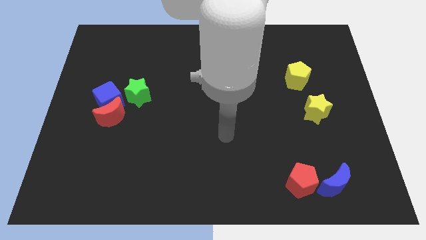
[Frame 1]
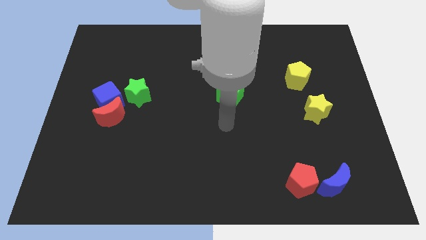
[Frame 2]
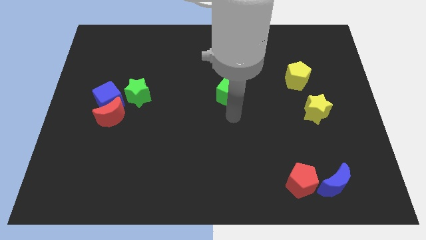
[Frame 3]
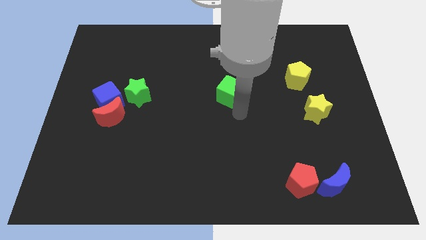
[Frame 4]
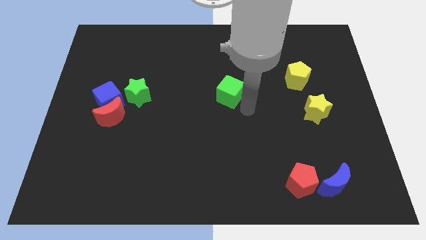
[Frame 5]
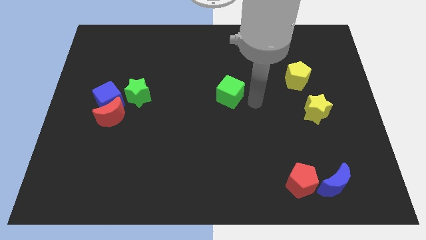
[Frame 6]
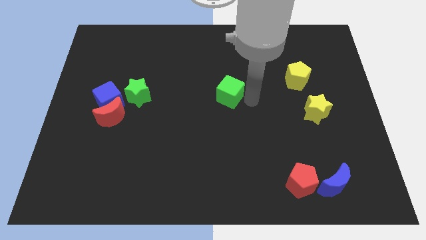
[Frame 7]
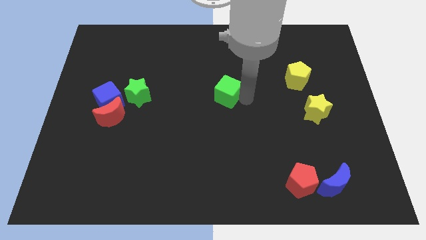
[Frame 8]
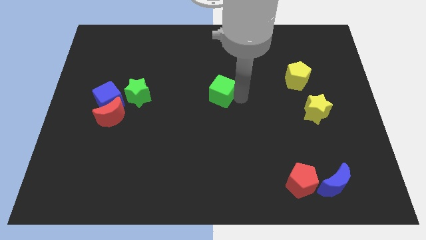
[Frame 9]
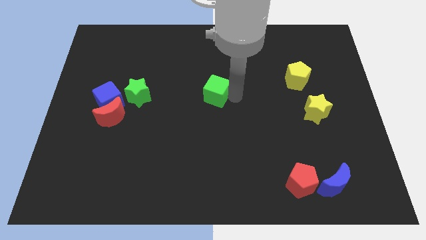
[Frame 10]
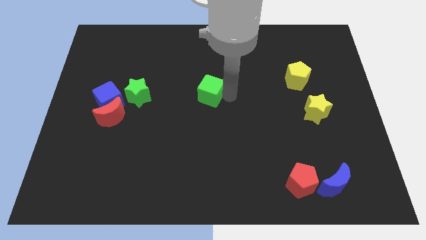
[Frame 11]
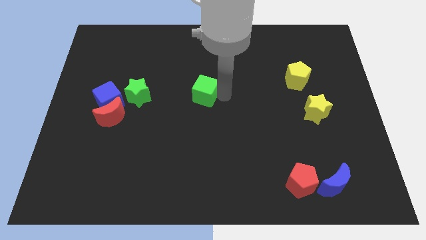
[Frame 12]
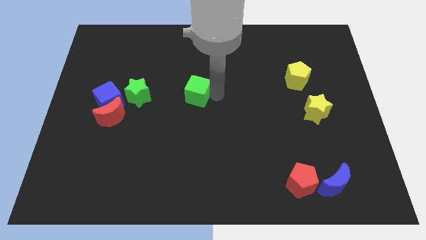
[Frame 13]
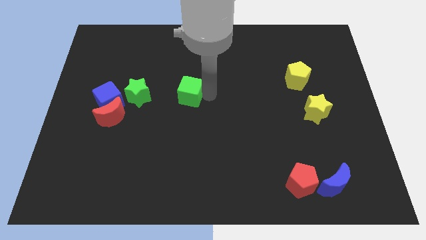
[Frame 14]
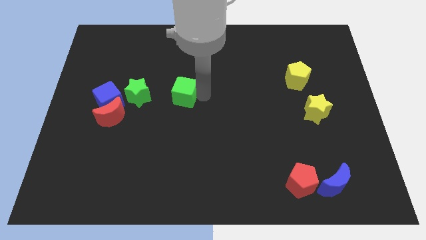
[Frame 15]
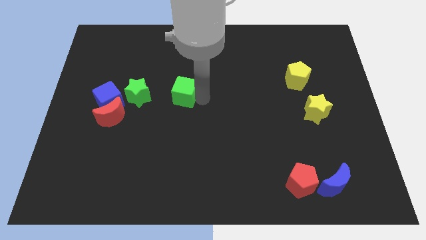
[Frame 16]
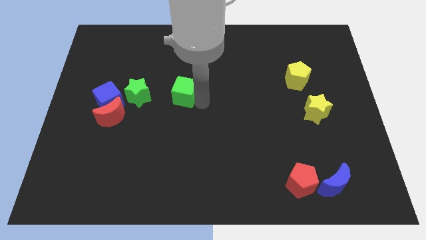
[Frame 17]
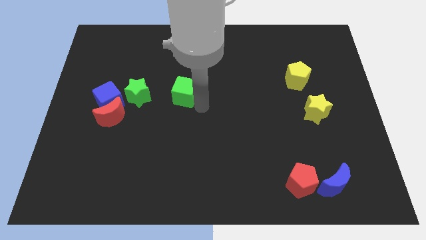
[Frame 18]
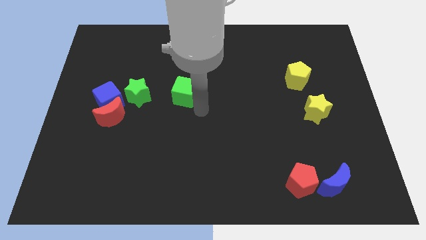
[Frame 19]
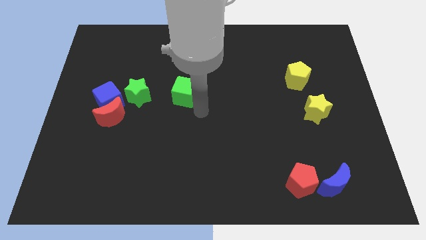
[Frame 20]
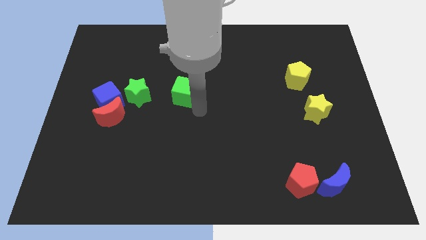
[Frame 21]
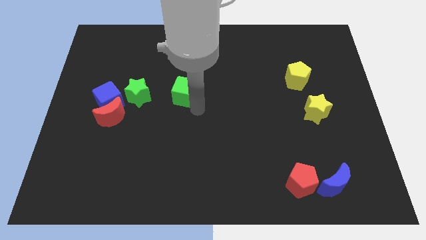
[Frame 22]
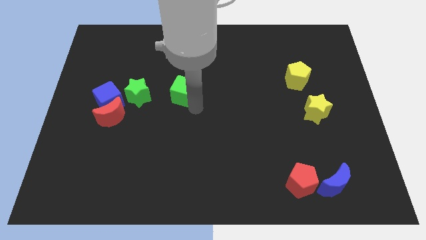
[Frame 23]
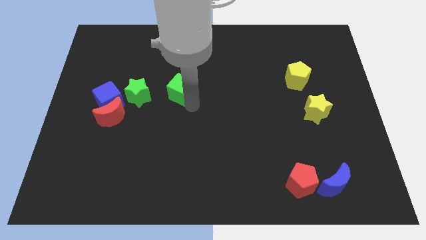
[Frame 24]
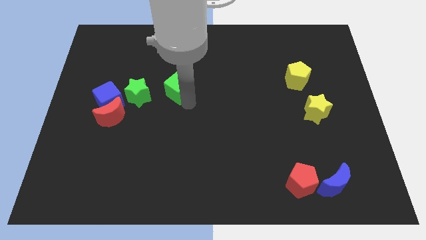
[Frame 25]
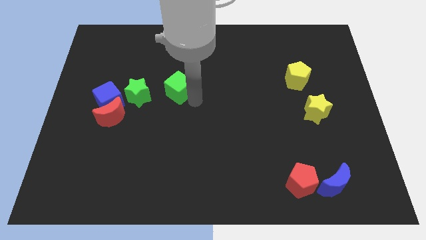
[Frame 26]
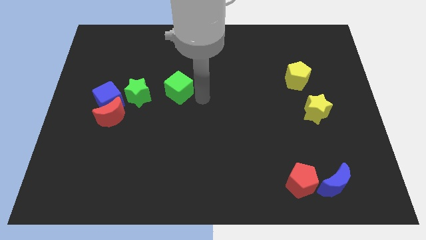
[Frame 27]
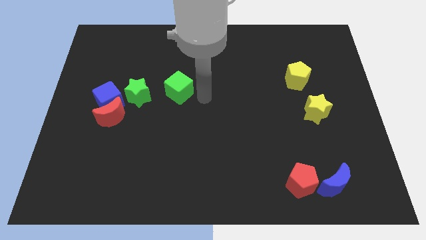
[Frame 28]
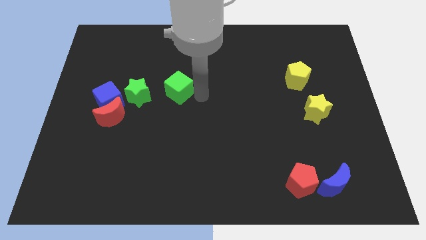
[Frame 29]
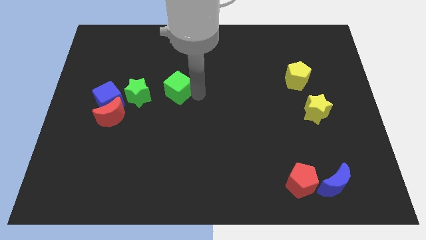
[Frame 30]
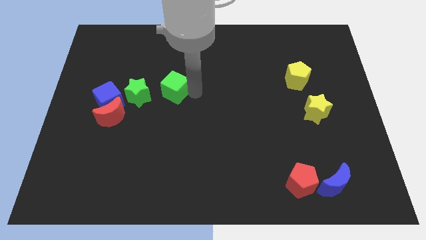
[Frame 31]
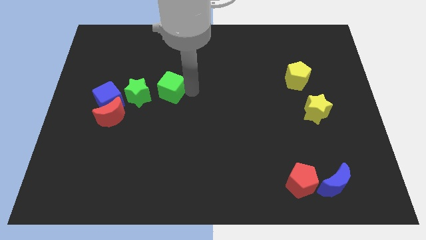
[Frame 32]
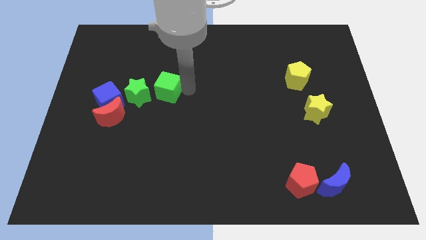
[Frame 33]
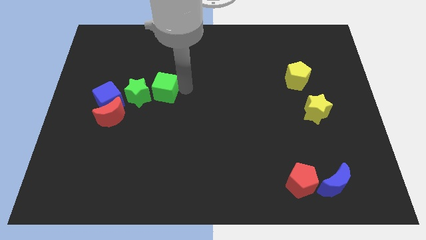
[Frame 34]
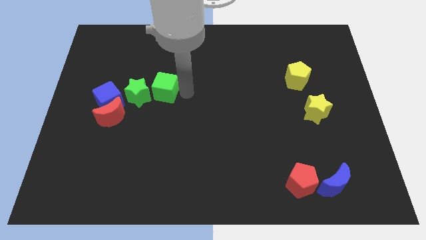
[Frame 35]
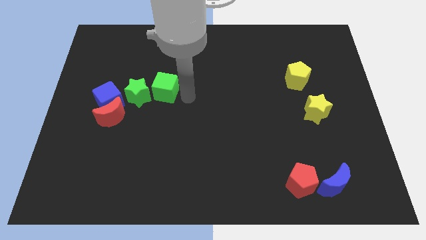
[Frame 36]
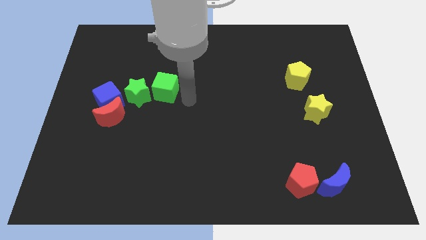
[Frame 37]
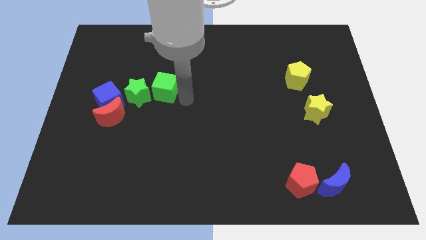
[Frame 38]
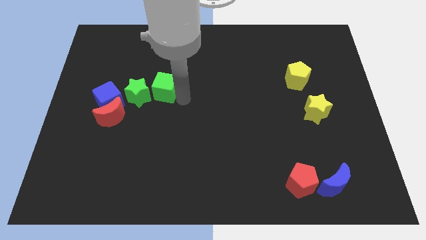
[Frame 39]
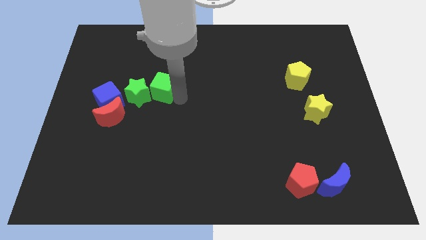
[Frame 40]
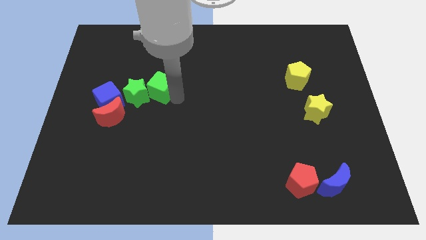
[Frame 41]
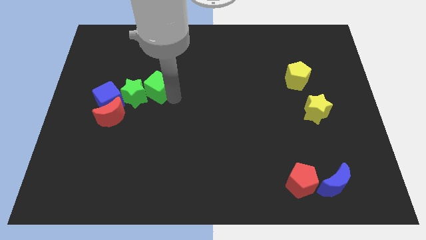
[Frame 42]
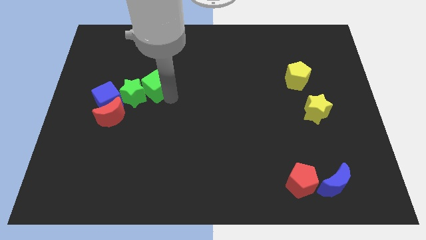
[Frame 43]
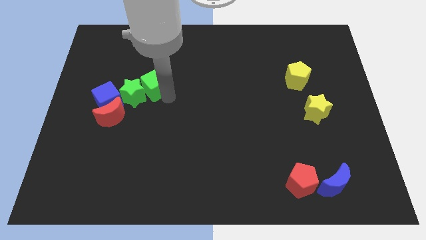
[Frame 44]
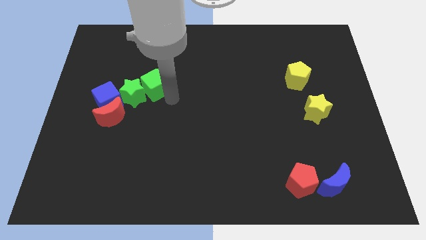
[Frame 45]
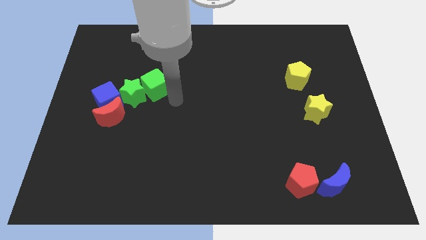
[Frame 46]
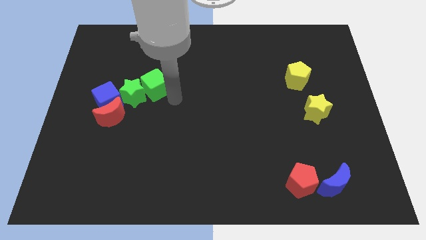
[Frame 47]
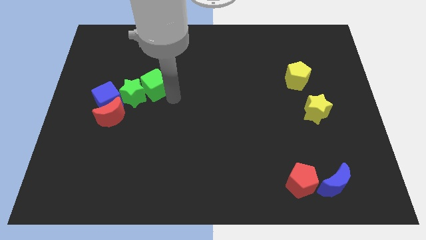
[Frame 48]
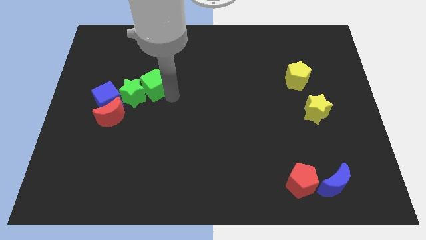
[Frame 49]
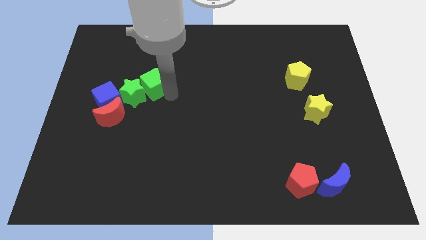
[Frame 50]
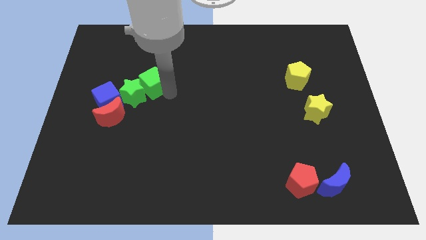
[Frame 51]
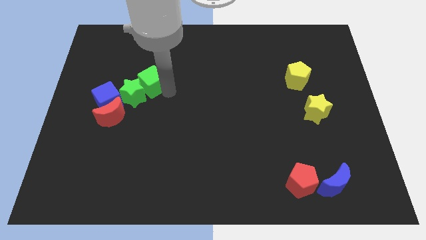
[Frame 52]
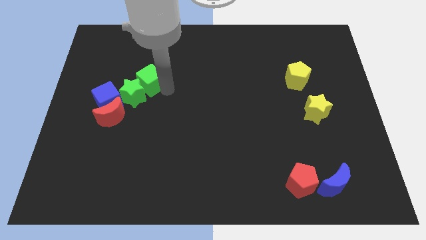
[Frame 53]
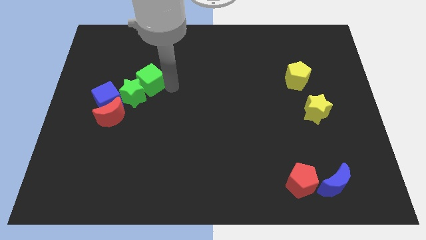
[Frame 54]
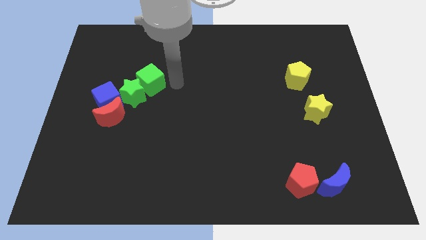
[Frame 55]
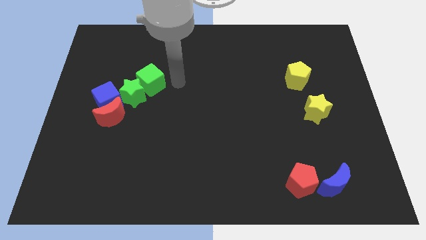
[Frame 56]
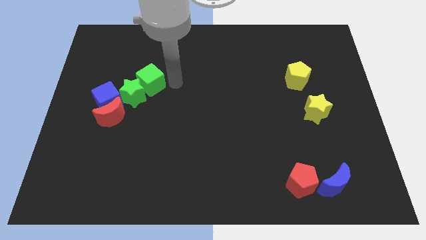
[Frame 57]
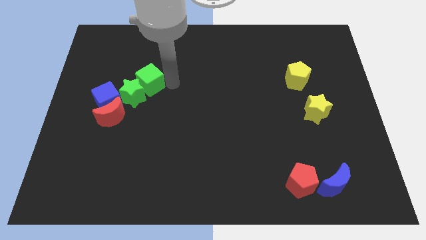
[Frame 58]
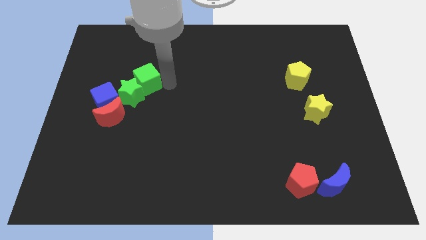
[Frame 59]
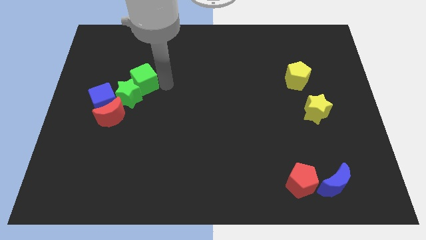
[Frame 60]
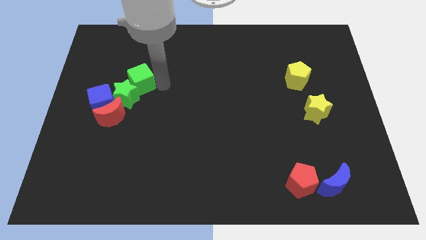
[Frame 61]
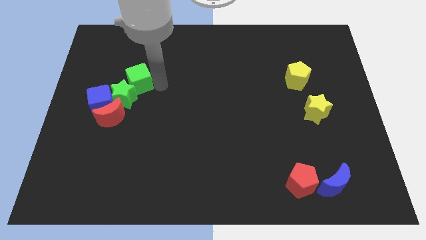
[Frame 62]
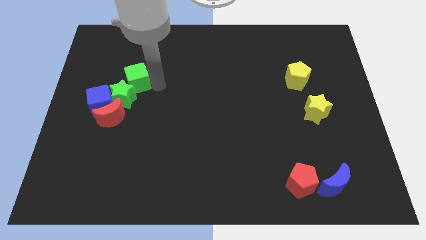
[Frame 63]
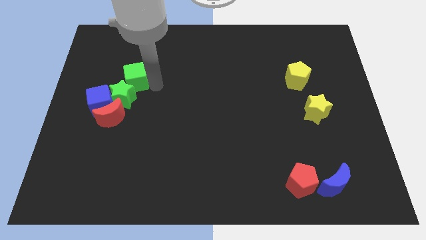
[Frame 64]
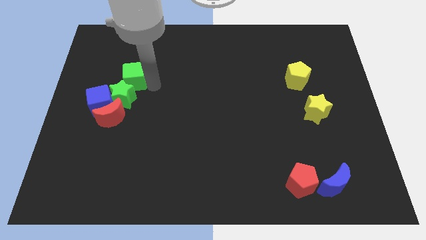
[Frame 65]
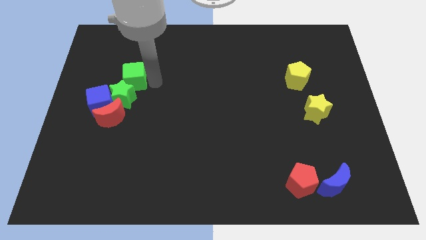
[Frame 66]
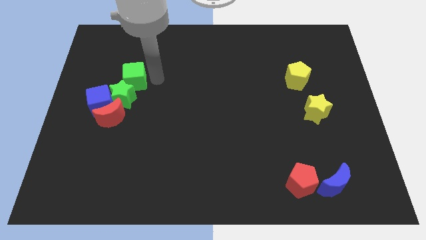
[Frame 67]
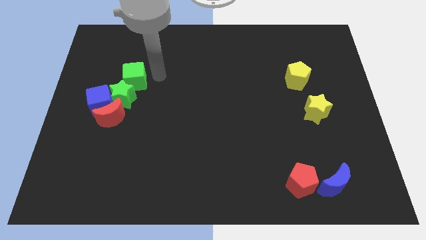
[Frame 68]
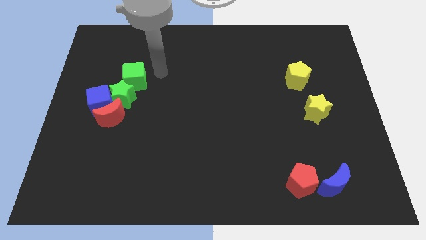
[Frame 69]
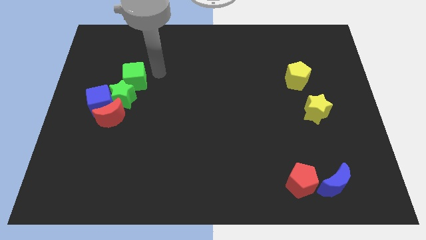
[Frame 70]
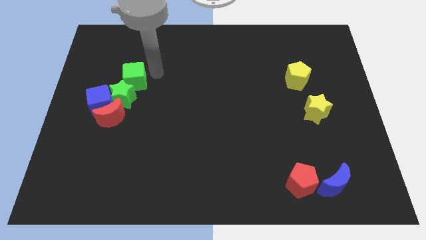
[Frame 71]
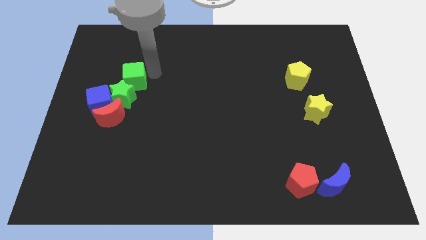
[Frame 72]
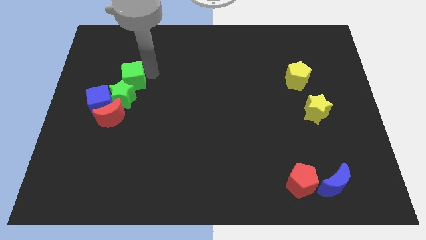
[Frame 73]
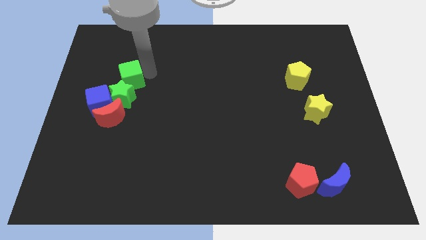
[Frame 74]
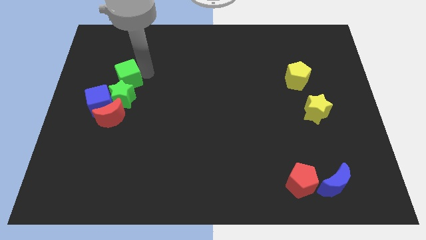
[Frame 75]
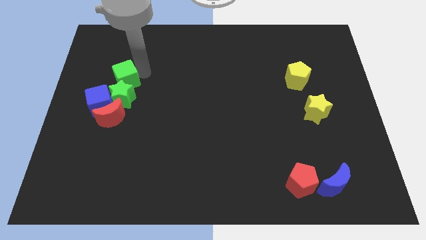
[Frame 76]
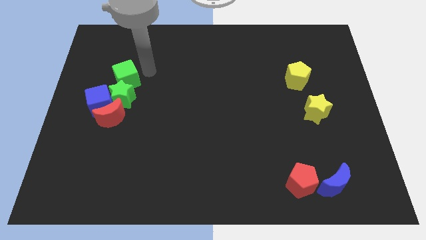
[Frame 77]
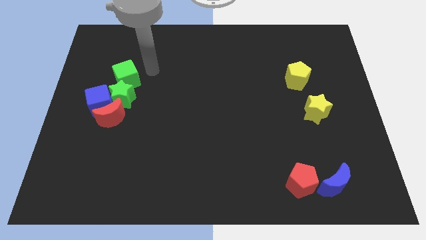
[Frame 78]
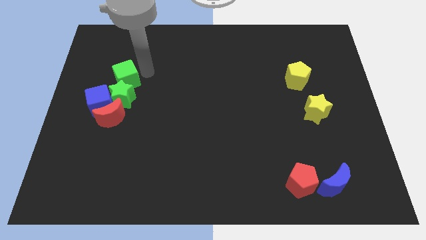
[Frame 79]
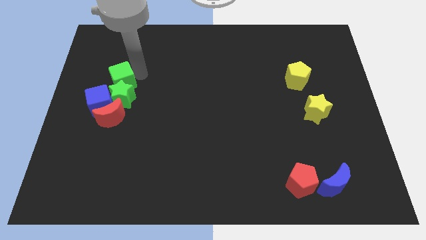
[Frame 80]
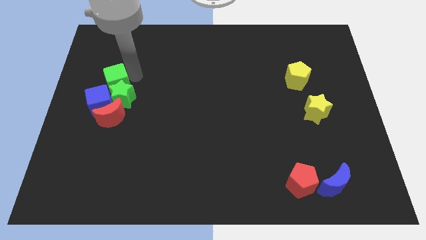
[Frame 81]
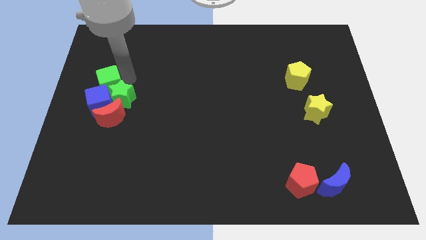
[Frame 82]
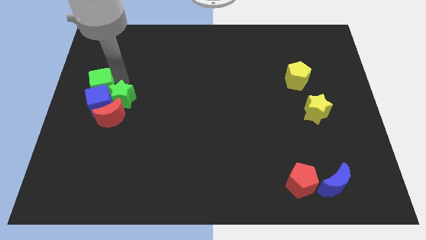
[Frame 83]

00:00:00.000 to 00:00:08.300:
slide the green cube to the left side
